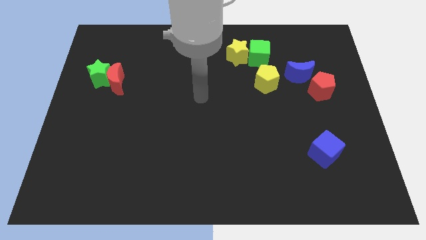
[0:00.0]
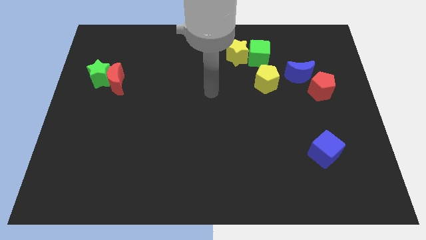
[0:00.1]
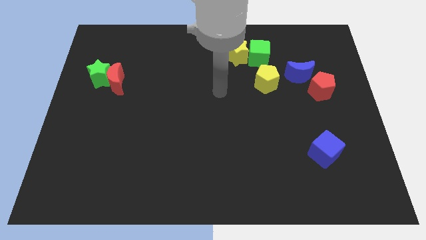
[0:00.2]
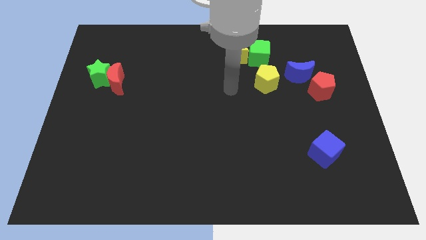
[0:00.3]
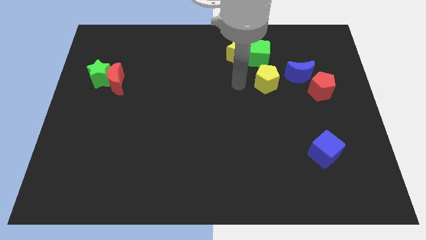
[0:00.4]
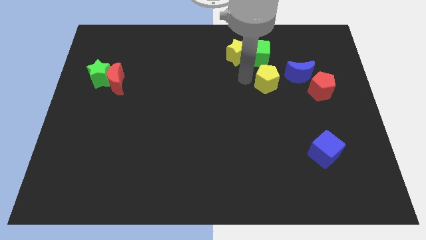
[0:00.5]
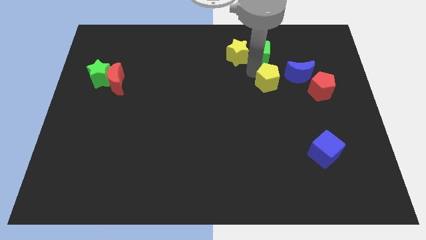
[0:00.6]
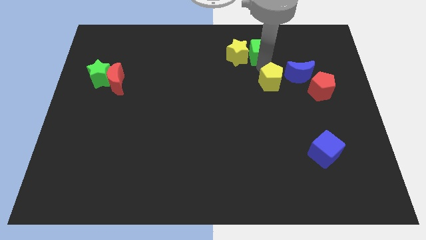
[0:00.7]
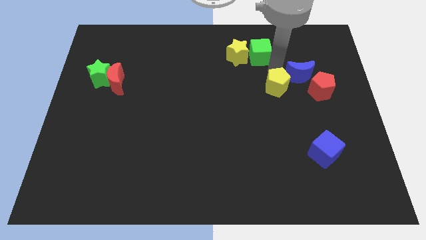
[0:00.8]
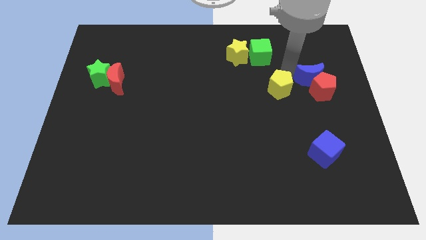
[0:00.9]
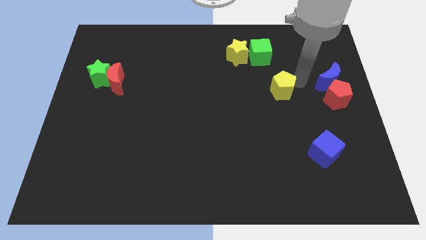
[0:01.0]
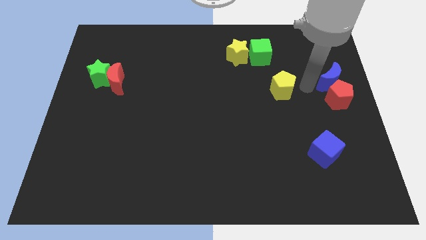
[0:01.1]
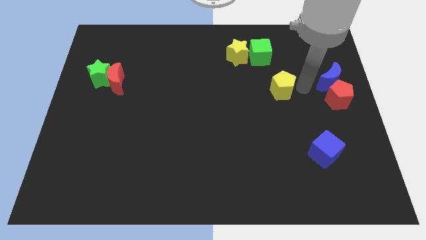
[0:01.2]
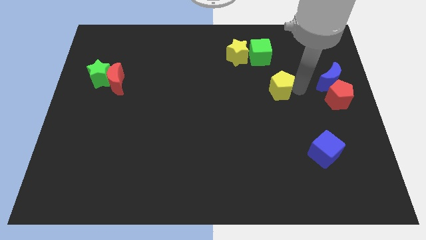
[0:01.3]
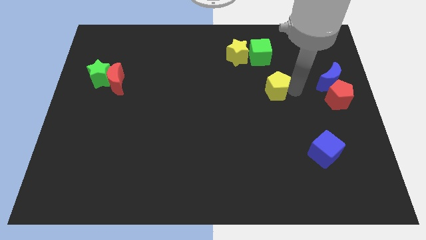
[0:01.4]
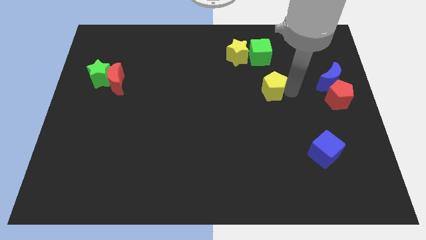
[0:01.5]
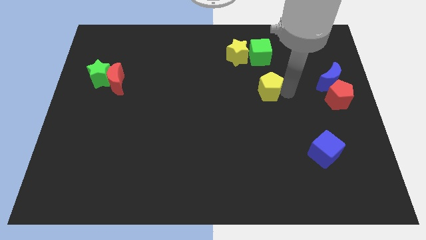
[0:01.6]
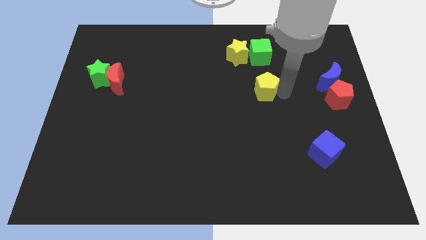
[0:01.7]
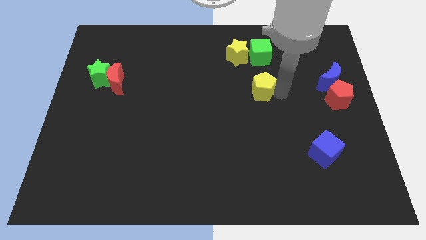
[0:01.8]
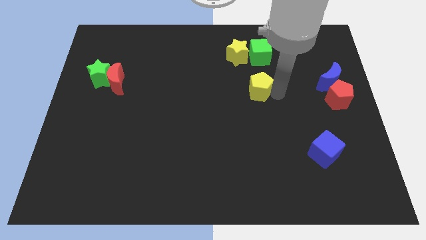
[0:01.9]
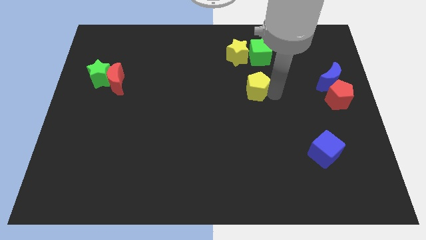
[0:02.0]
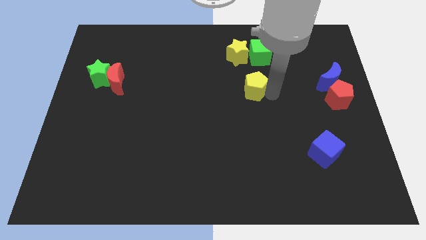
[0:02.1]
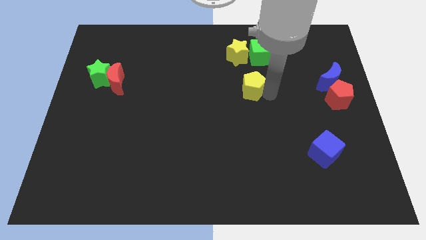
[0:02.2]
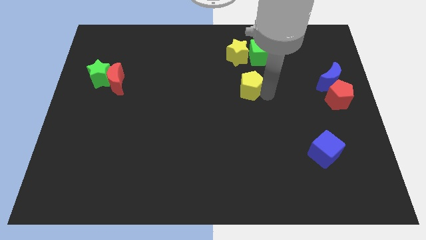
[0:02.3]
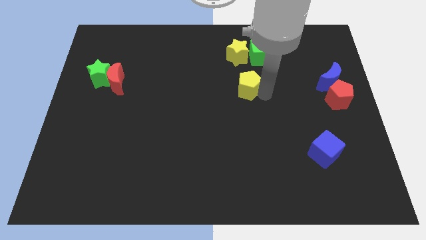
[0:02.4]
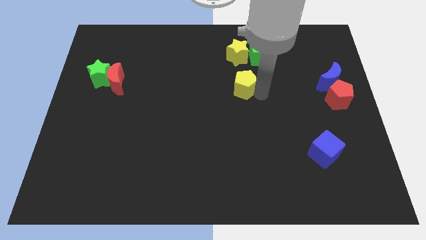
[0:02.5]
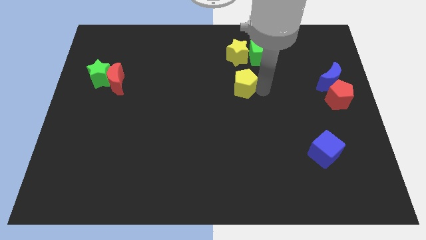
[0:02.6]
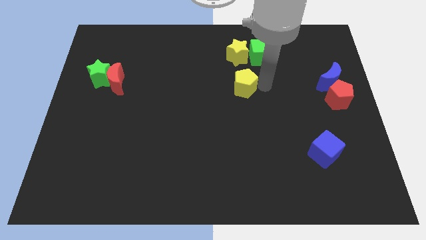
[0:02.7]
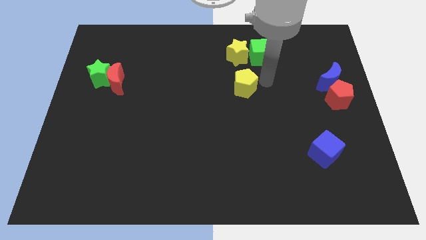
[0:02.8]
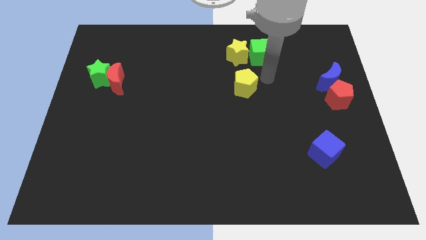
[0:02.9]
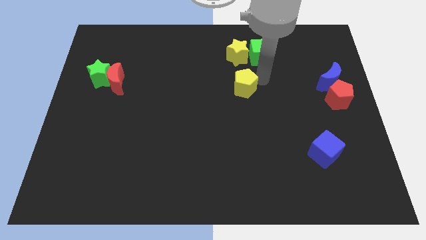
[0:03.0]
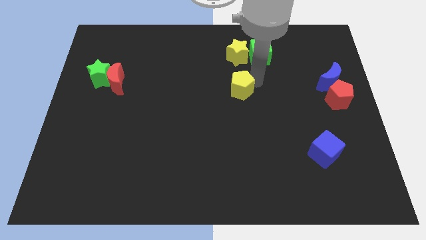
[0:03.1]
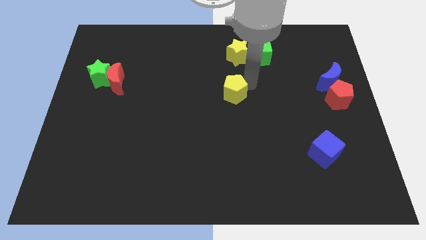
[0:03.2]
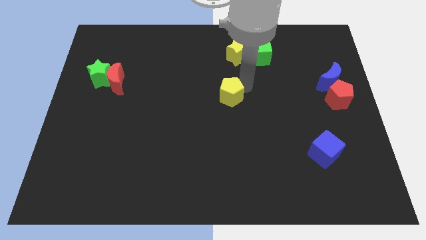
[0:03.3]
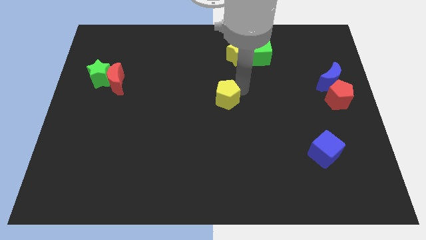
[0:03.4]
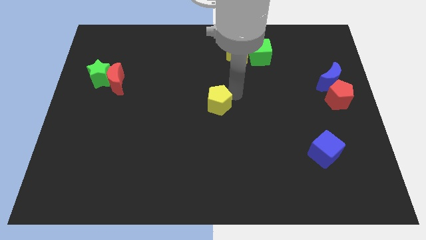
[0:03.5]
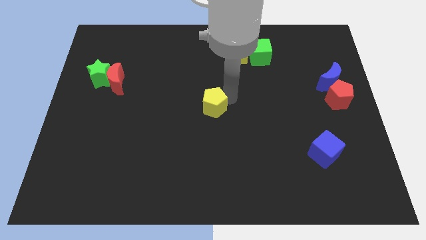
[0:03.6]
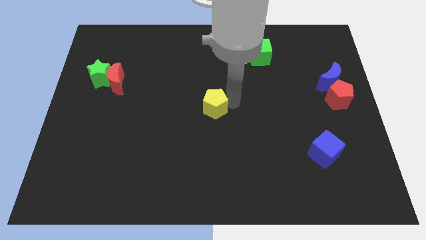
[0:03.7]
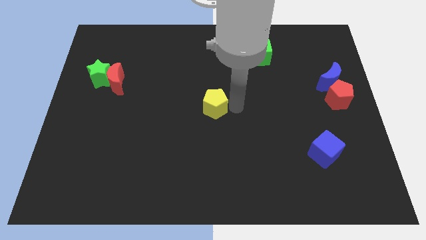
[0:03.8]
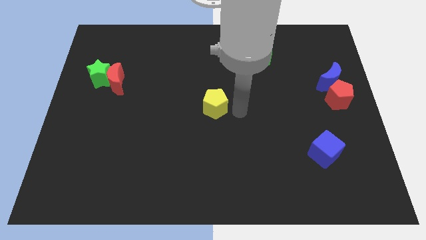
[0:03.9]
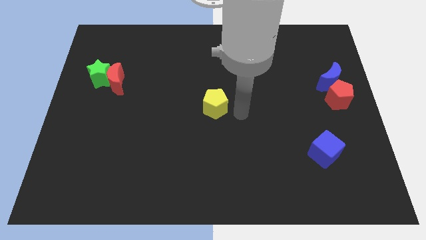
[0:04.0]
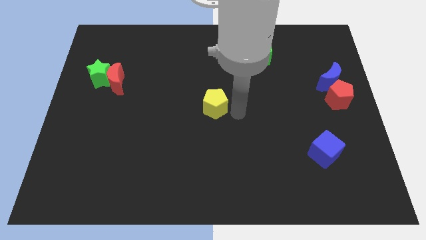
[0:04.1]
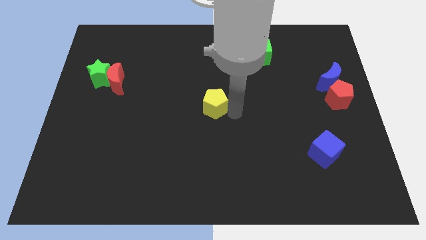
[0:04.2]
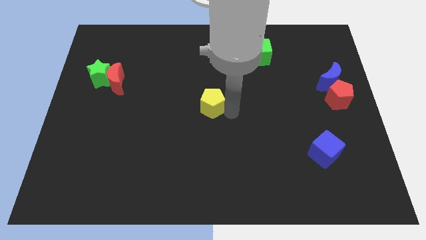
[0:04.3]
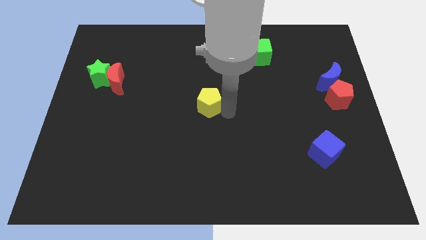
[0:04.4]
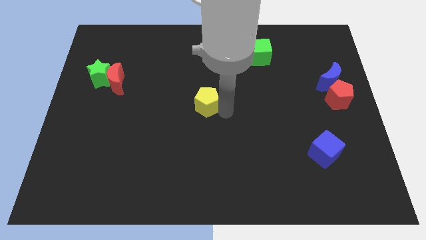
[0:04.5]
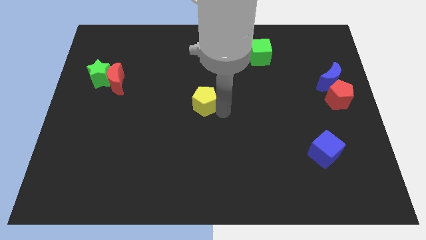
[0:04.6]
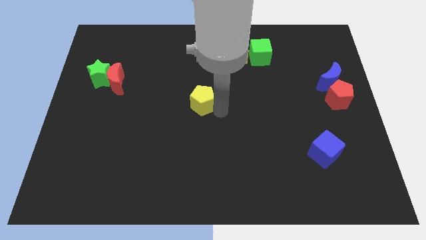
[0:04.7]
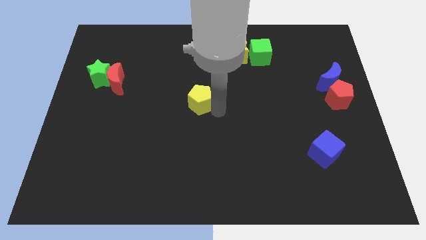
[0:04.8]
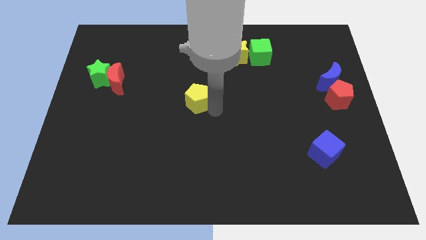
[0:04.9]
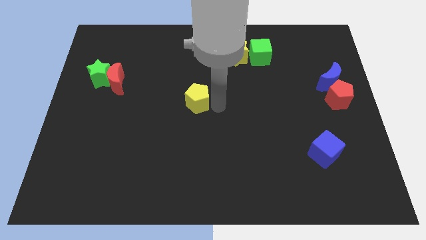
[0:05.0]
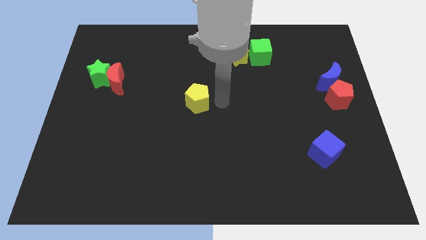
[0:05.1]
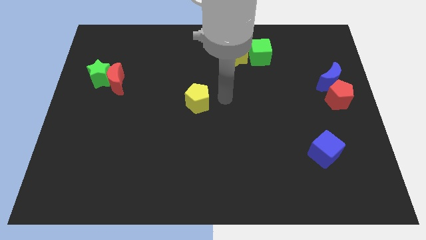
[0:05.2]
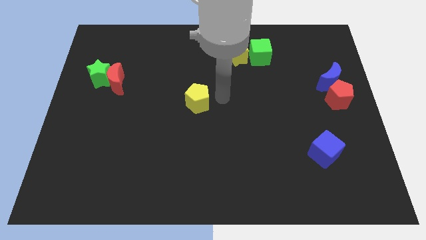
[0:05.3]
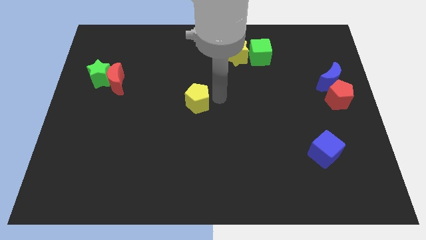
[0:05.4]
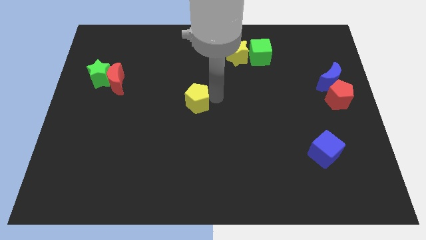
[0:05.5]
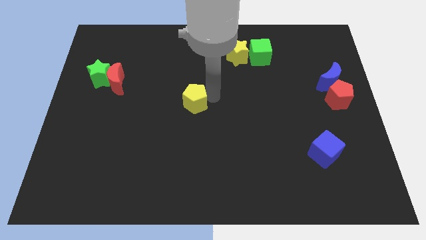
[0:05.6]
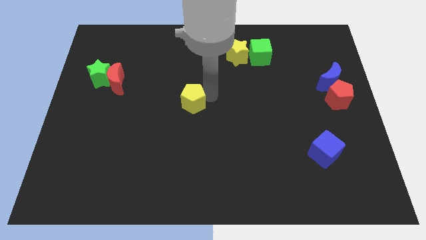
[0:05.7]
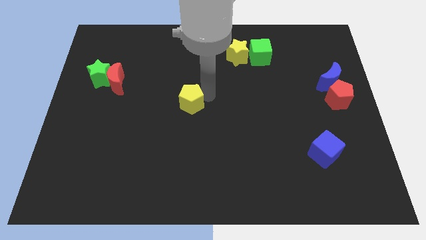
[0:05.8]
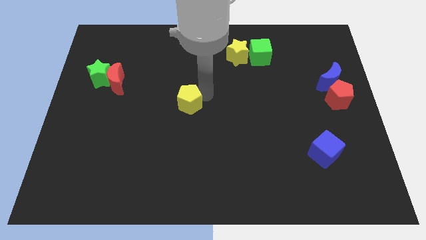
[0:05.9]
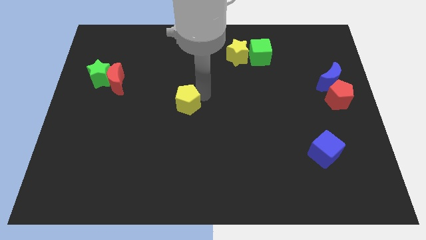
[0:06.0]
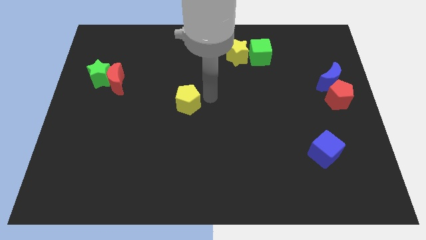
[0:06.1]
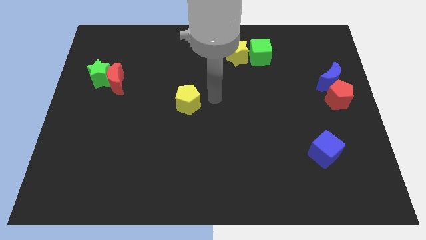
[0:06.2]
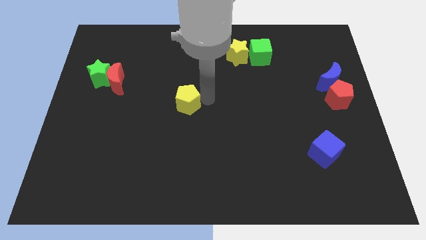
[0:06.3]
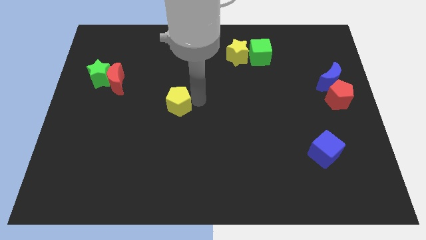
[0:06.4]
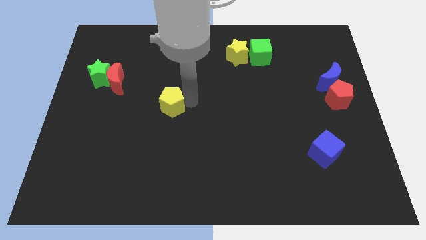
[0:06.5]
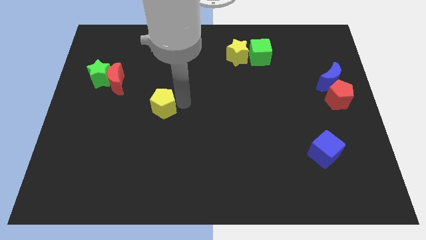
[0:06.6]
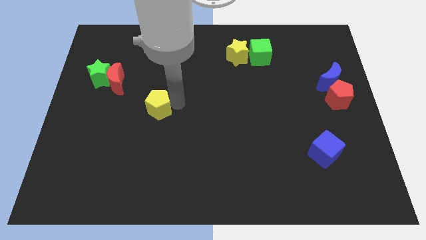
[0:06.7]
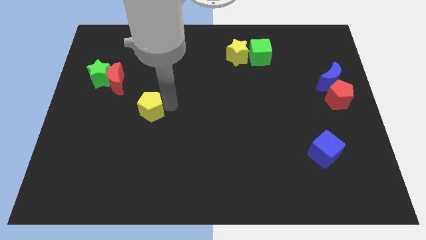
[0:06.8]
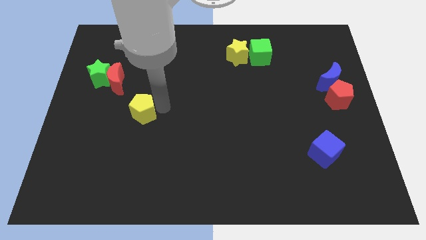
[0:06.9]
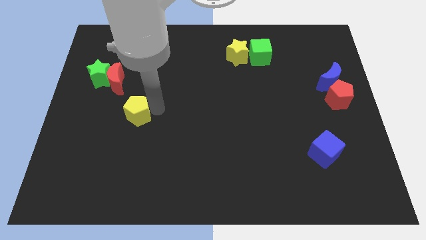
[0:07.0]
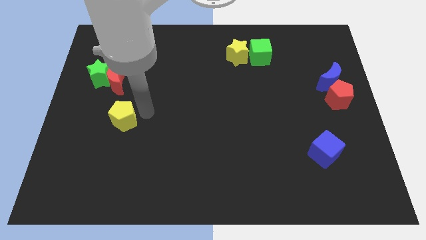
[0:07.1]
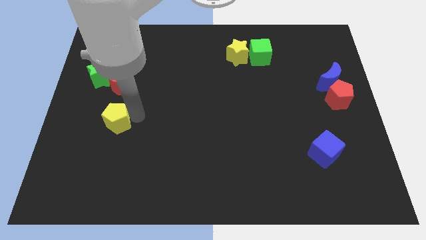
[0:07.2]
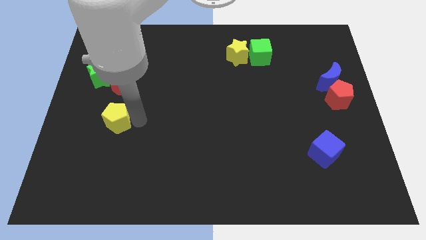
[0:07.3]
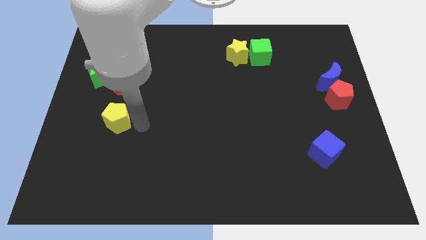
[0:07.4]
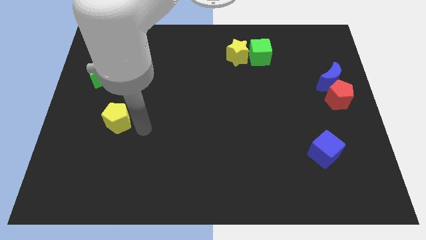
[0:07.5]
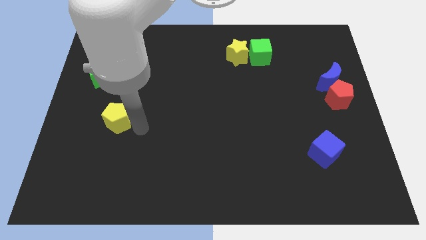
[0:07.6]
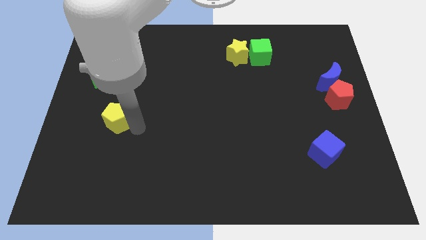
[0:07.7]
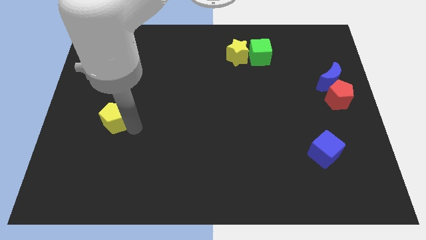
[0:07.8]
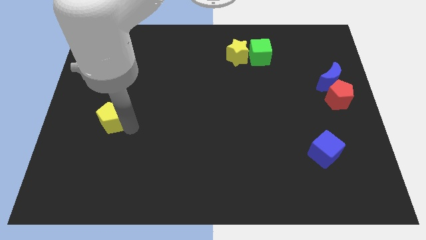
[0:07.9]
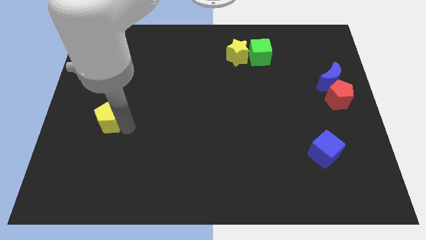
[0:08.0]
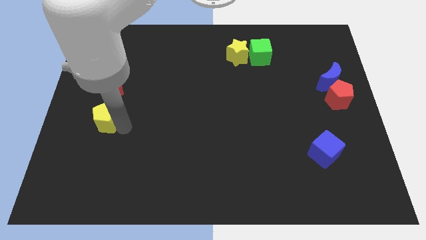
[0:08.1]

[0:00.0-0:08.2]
push the yellow pentagon to the bottom of the green star
